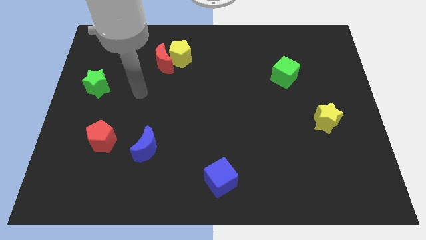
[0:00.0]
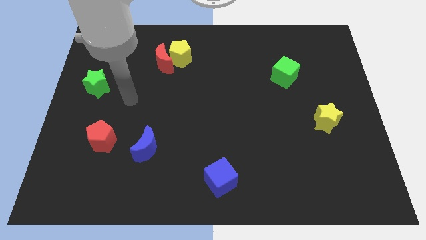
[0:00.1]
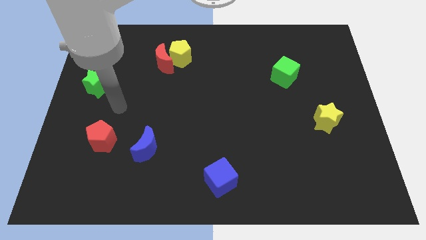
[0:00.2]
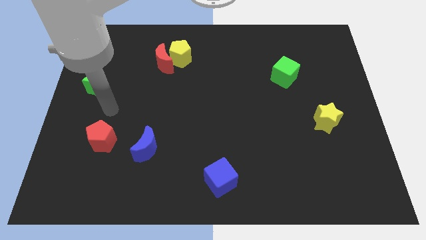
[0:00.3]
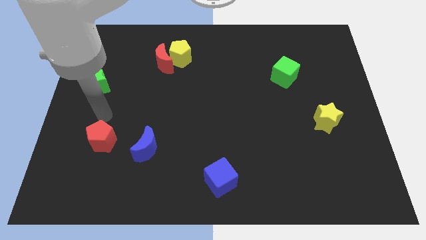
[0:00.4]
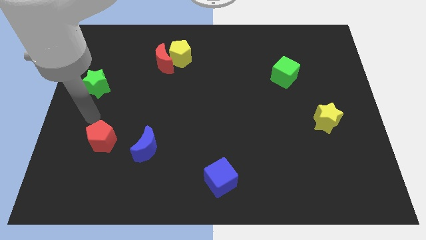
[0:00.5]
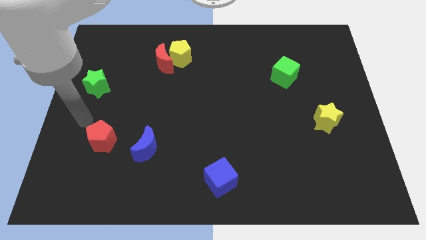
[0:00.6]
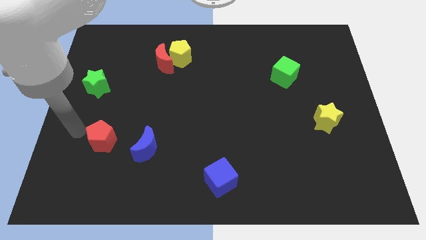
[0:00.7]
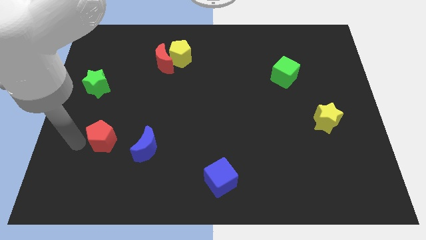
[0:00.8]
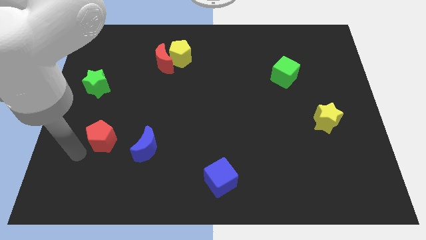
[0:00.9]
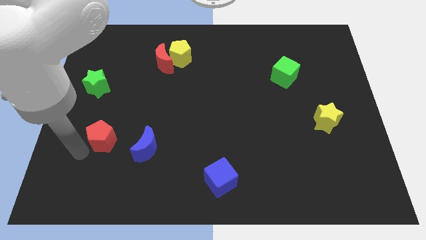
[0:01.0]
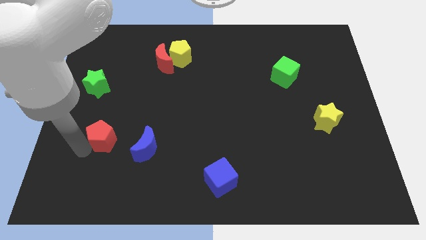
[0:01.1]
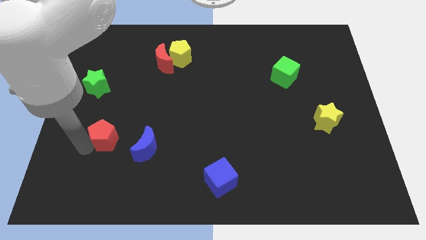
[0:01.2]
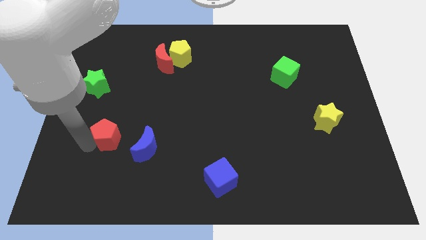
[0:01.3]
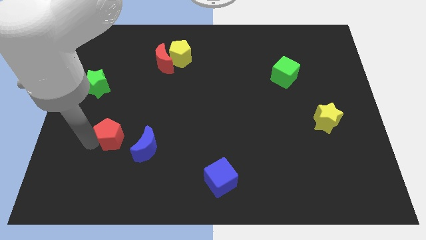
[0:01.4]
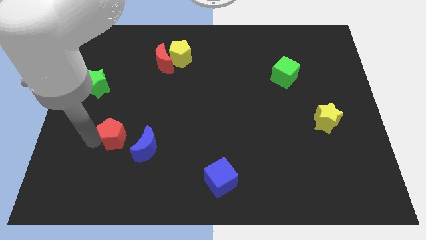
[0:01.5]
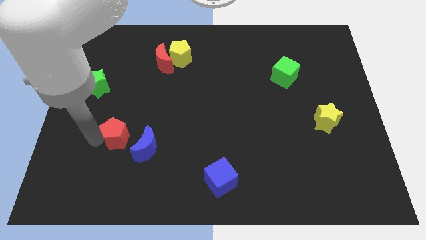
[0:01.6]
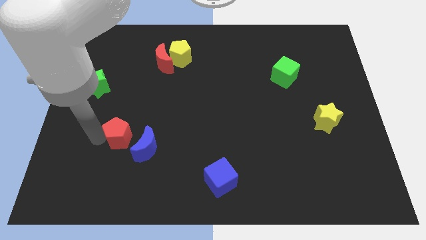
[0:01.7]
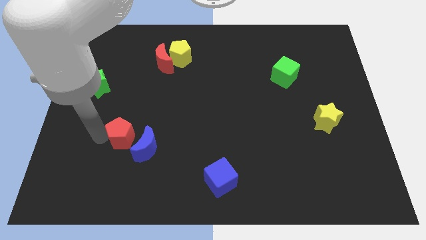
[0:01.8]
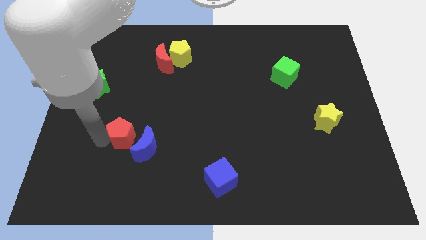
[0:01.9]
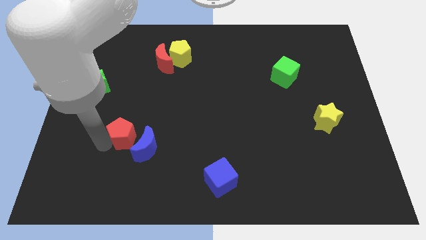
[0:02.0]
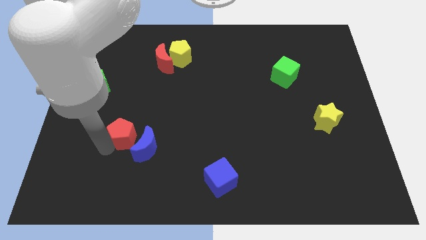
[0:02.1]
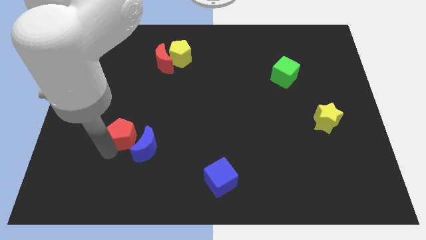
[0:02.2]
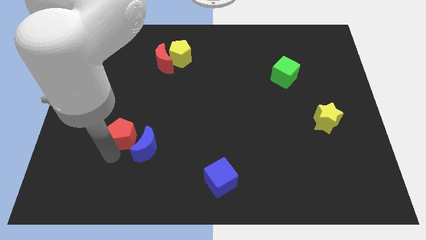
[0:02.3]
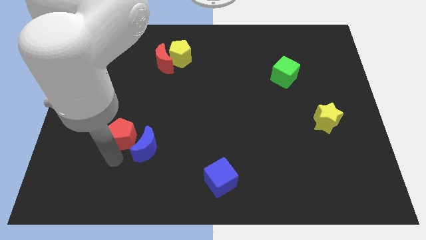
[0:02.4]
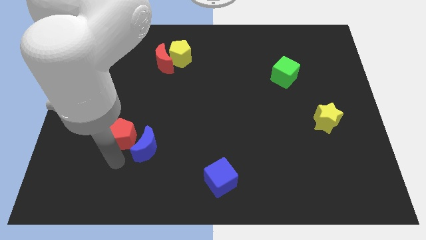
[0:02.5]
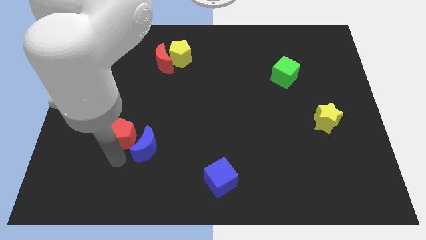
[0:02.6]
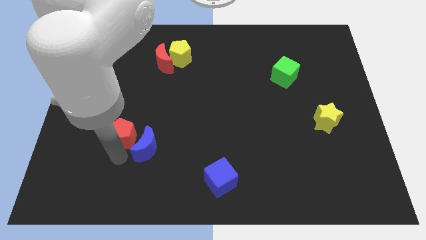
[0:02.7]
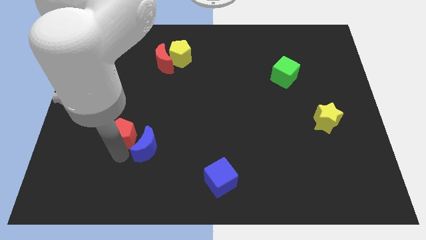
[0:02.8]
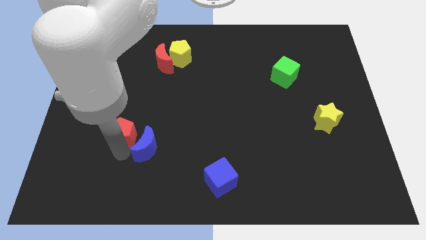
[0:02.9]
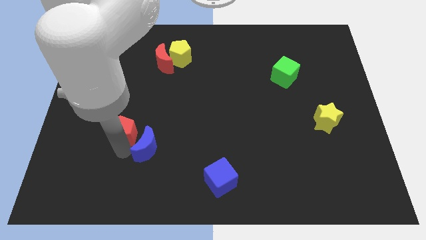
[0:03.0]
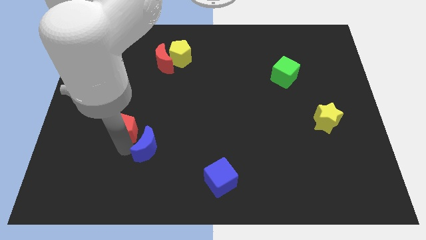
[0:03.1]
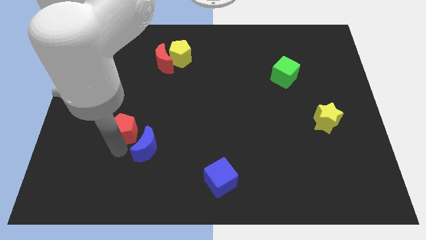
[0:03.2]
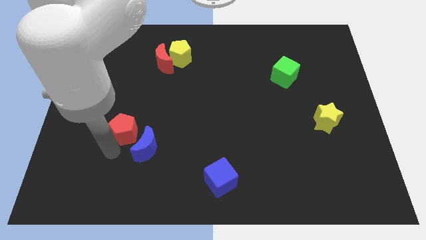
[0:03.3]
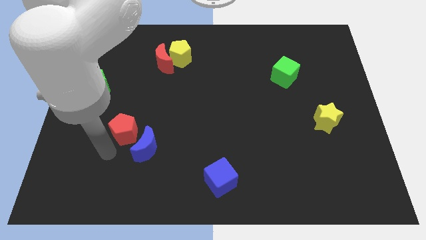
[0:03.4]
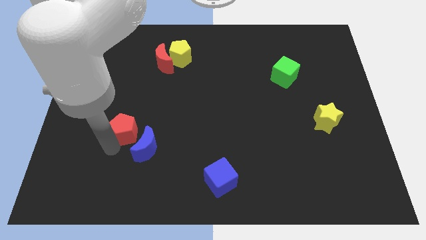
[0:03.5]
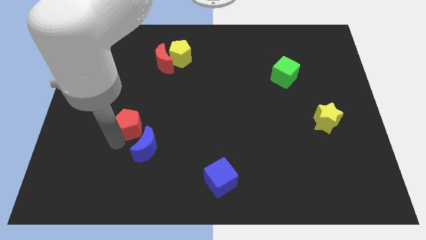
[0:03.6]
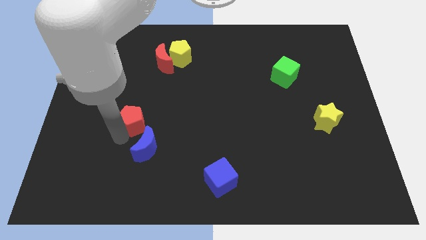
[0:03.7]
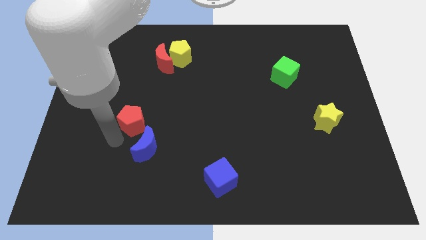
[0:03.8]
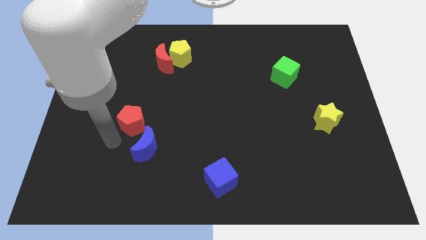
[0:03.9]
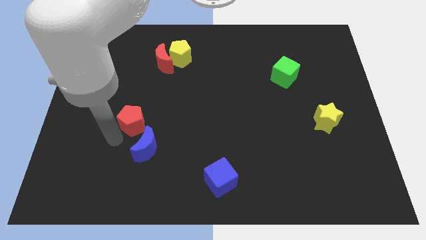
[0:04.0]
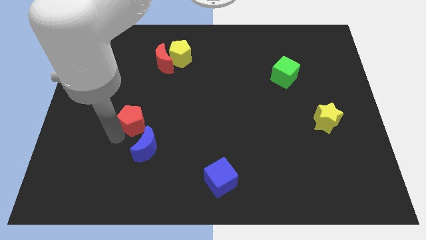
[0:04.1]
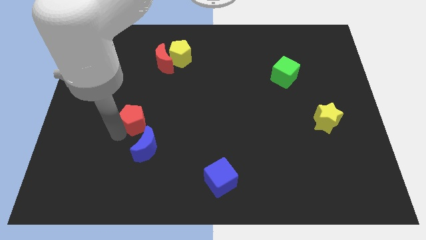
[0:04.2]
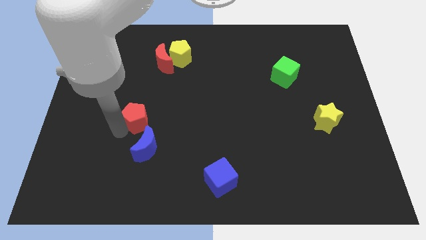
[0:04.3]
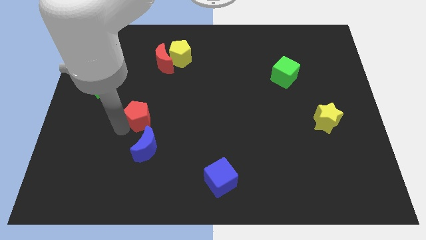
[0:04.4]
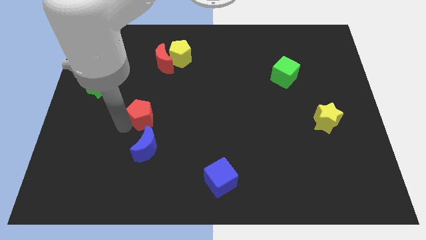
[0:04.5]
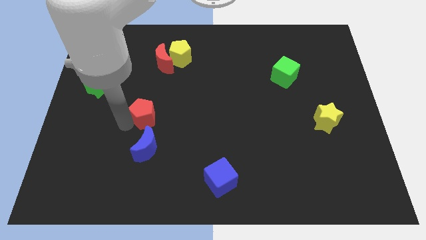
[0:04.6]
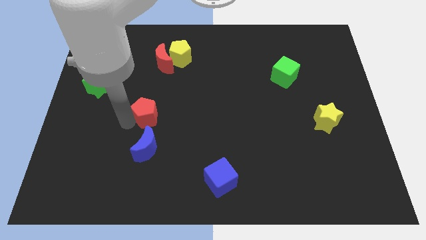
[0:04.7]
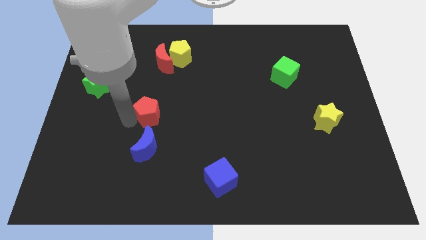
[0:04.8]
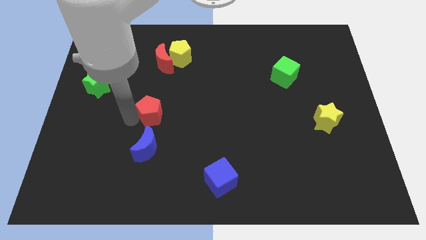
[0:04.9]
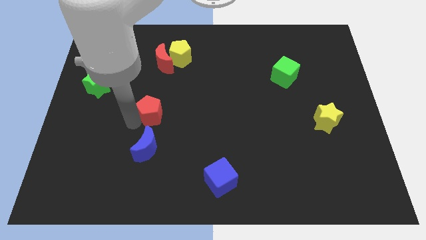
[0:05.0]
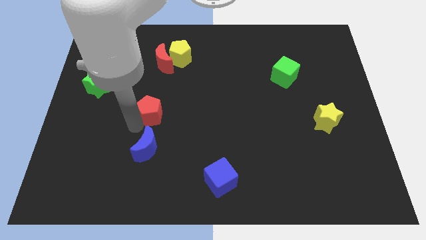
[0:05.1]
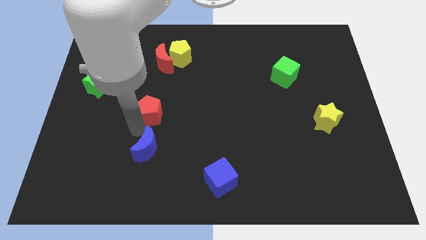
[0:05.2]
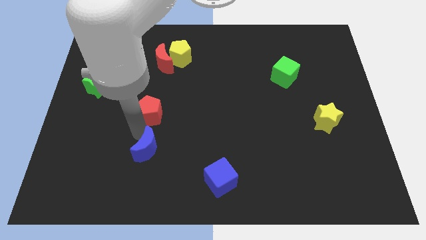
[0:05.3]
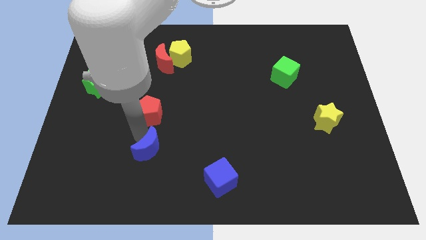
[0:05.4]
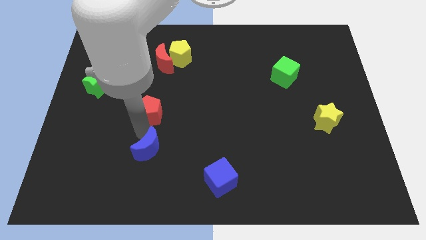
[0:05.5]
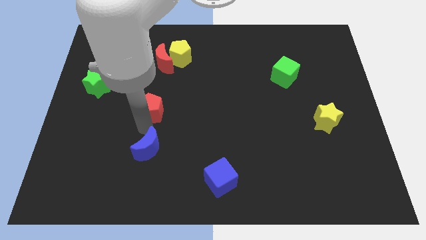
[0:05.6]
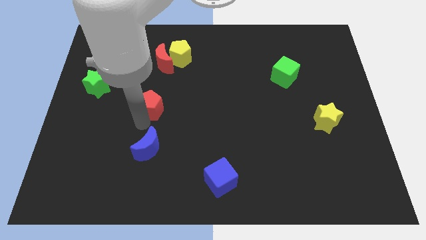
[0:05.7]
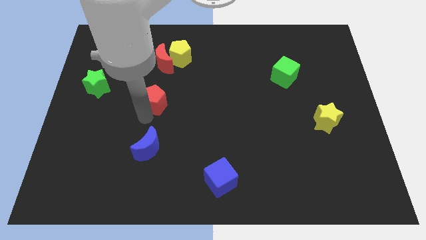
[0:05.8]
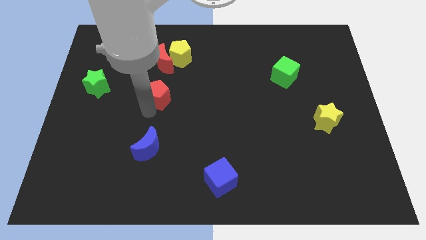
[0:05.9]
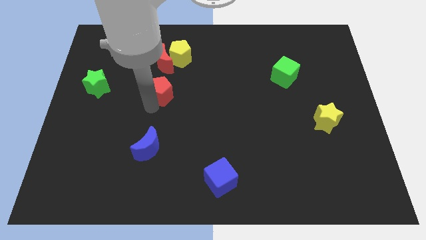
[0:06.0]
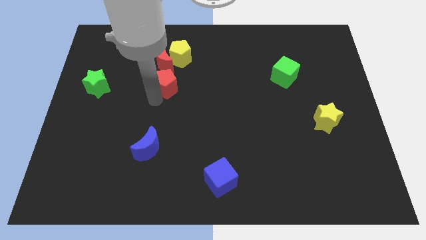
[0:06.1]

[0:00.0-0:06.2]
move the red pentagon upwards and to the right

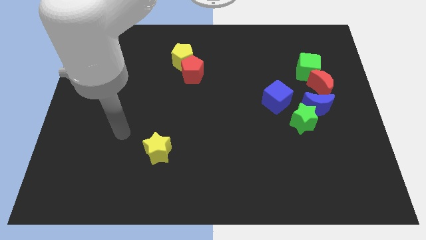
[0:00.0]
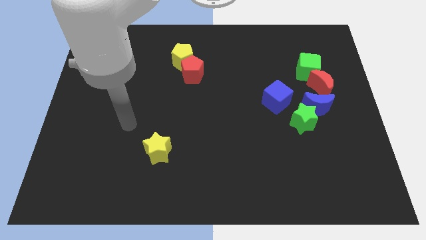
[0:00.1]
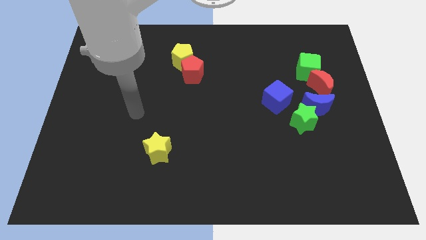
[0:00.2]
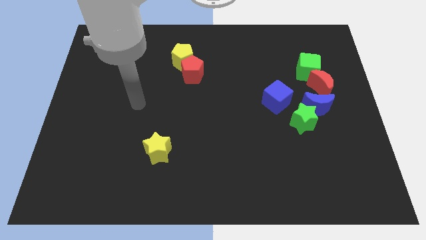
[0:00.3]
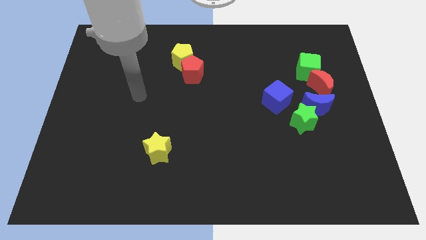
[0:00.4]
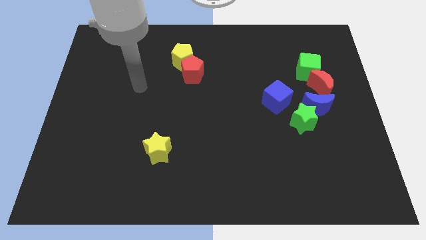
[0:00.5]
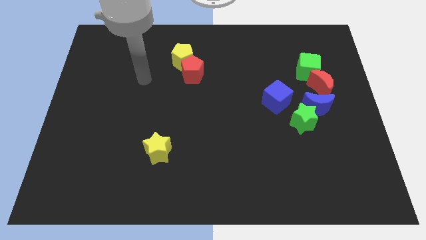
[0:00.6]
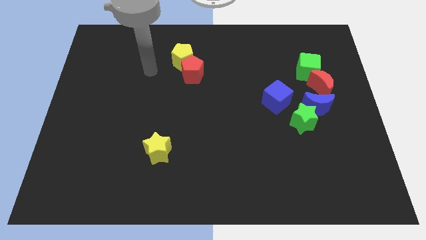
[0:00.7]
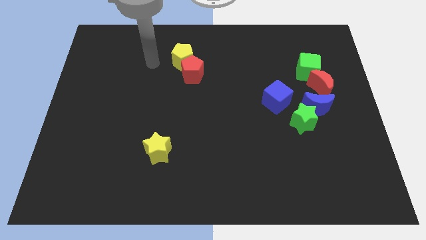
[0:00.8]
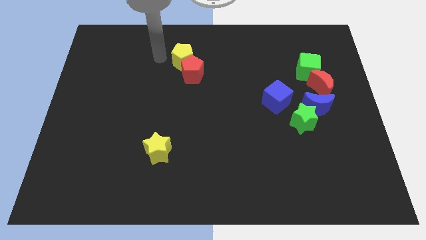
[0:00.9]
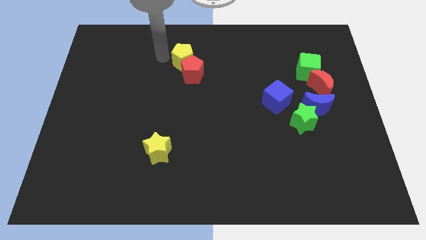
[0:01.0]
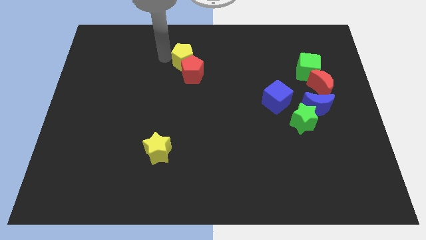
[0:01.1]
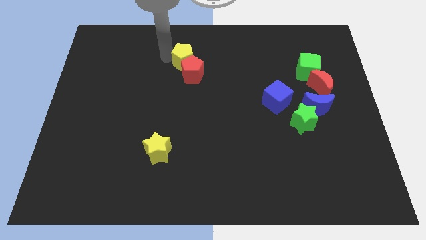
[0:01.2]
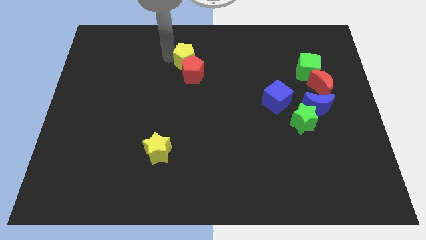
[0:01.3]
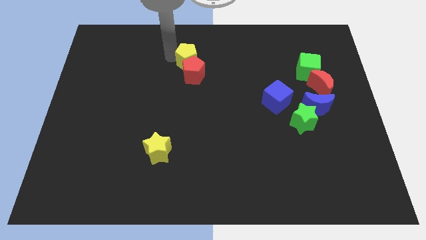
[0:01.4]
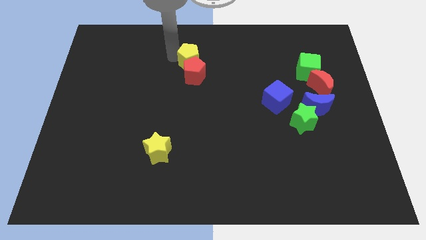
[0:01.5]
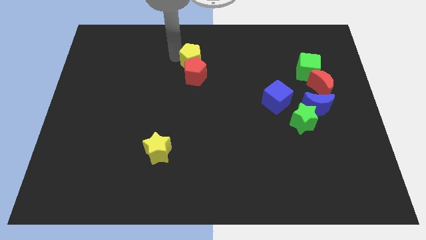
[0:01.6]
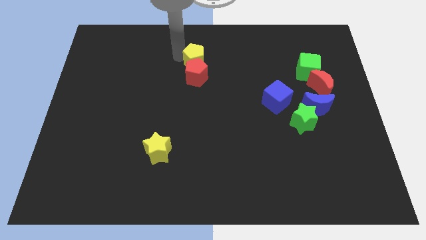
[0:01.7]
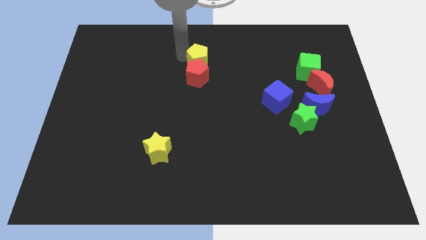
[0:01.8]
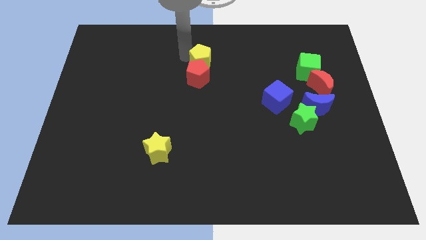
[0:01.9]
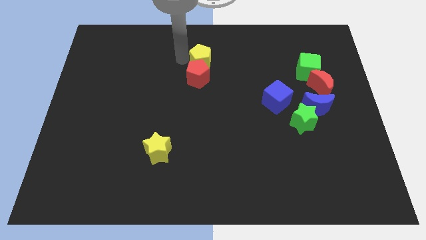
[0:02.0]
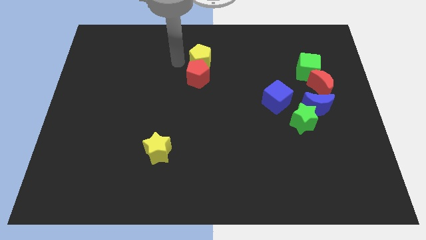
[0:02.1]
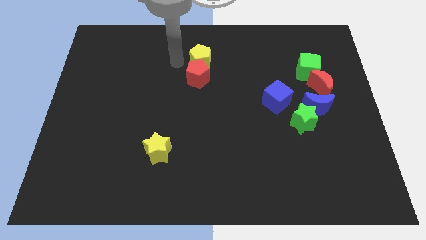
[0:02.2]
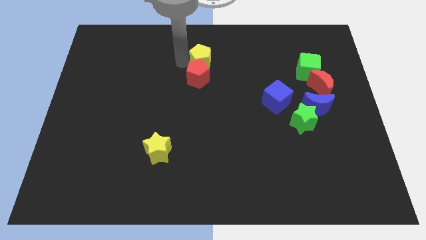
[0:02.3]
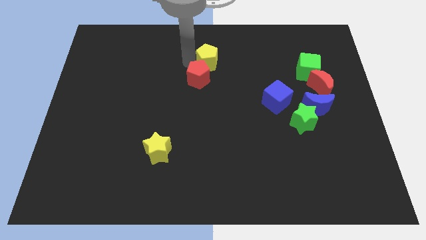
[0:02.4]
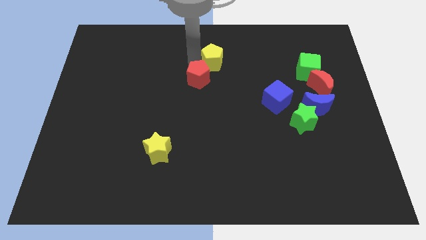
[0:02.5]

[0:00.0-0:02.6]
slide the yellow pentagon slightly to the right
